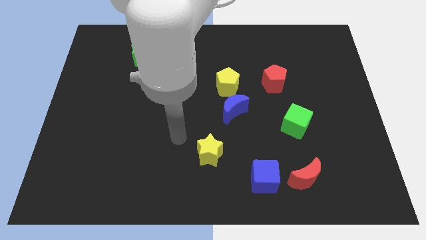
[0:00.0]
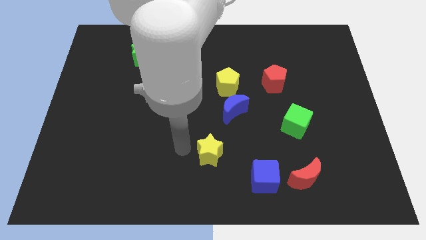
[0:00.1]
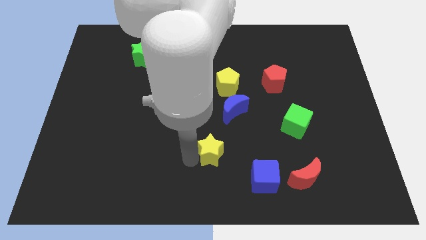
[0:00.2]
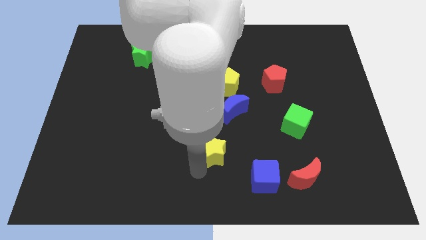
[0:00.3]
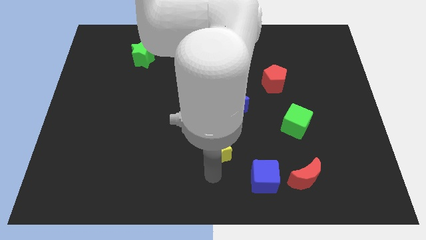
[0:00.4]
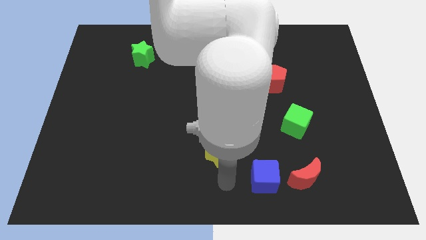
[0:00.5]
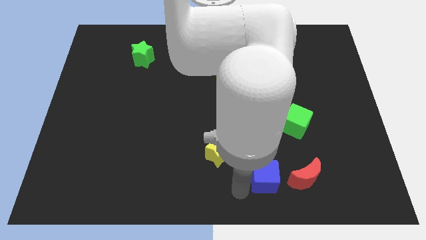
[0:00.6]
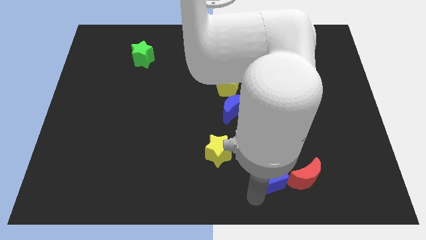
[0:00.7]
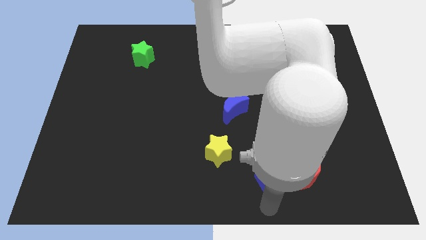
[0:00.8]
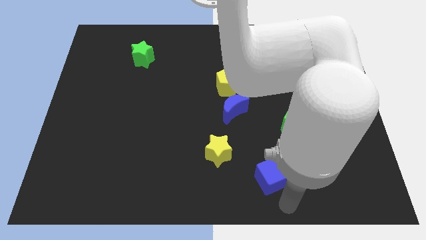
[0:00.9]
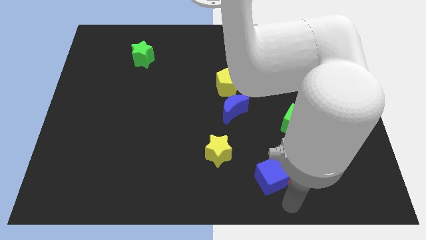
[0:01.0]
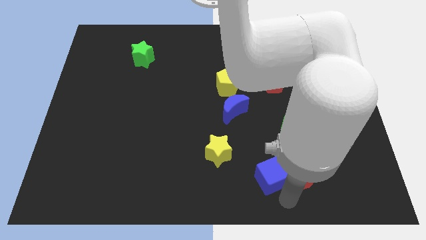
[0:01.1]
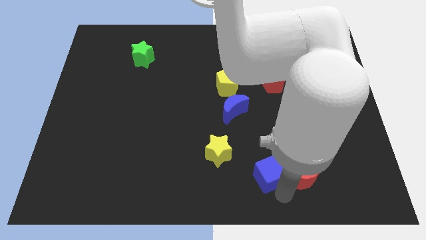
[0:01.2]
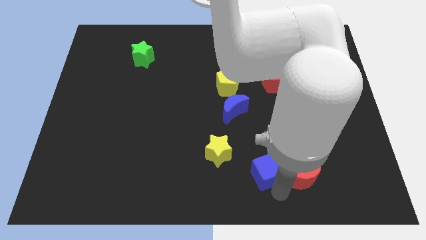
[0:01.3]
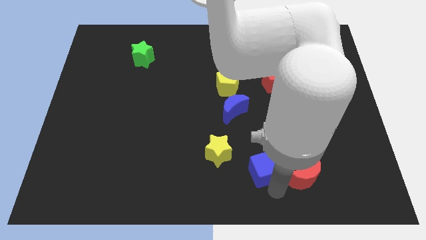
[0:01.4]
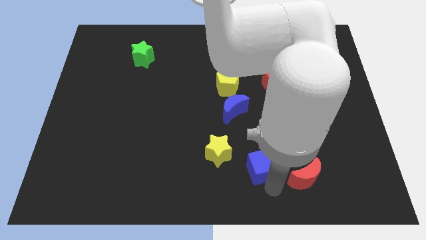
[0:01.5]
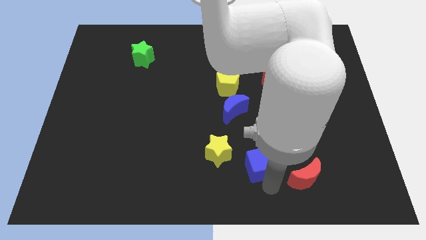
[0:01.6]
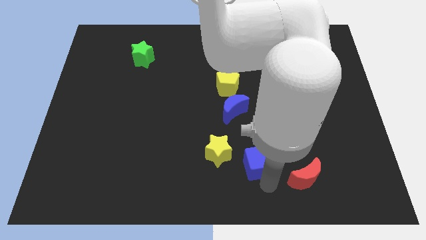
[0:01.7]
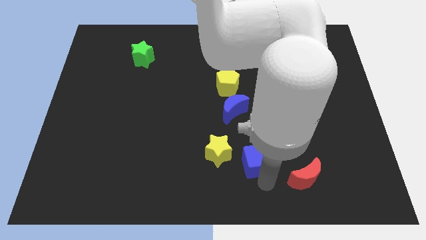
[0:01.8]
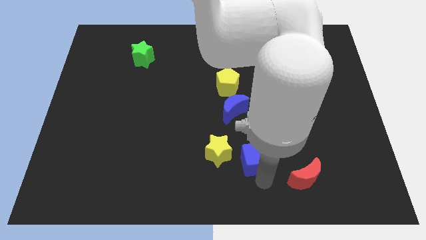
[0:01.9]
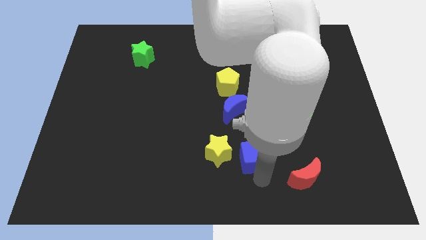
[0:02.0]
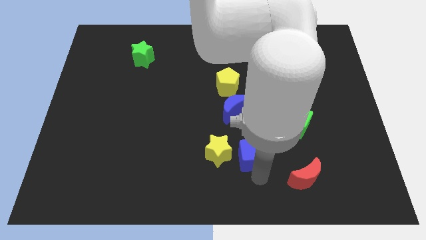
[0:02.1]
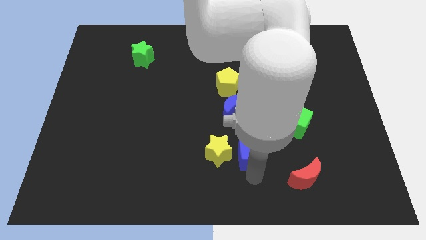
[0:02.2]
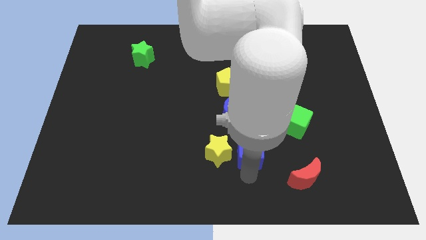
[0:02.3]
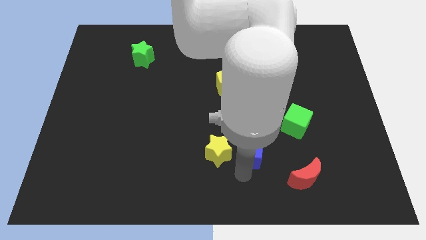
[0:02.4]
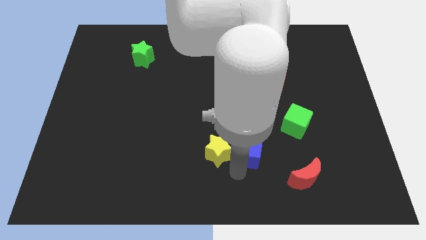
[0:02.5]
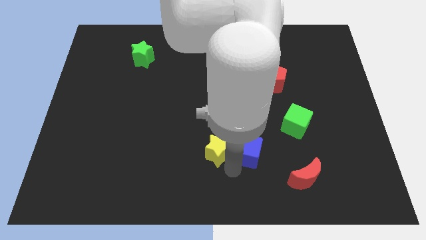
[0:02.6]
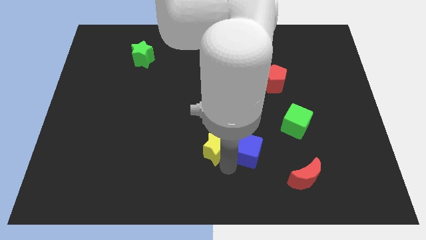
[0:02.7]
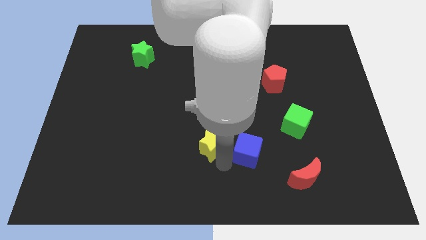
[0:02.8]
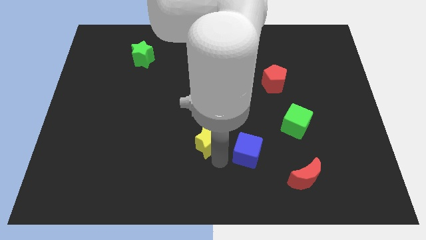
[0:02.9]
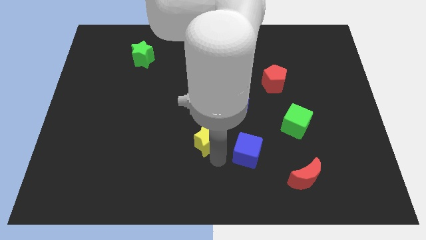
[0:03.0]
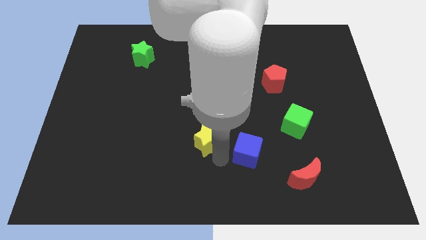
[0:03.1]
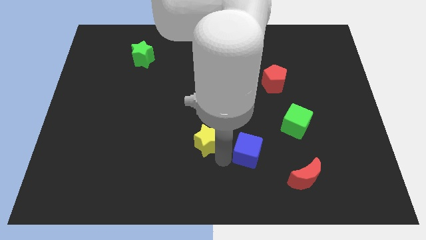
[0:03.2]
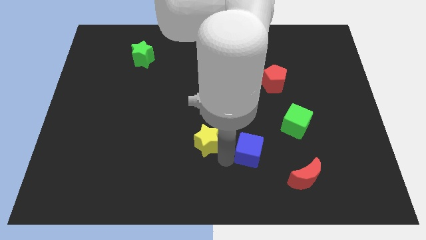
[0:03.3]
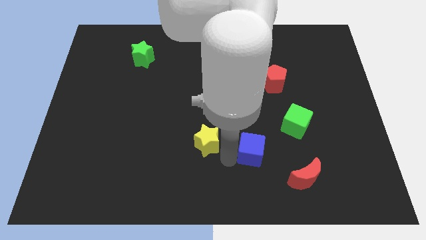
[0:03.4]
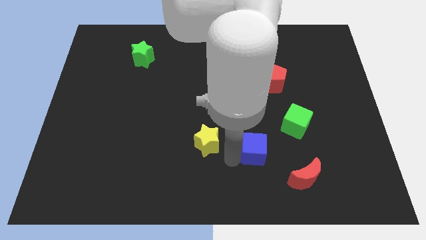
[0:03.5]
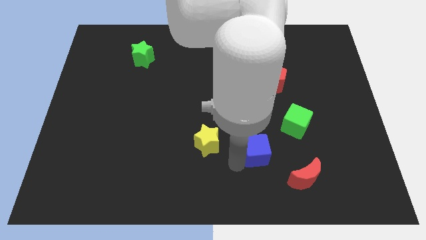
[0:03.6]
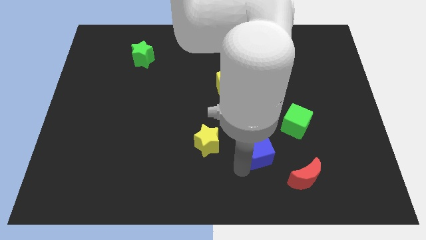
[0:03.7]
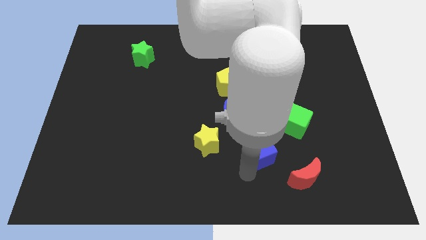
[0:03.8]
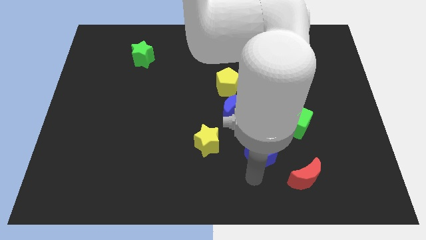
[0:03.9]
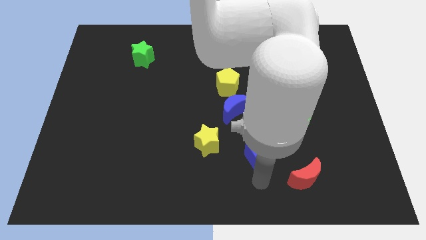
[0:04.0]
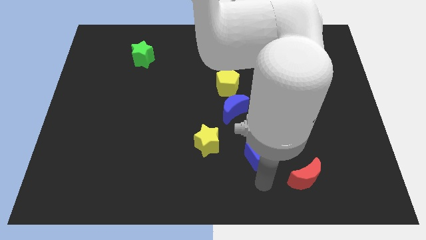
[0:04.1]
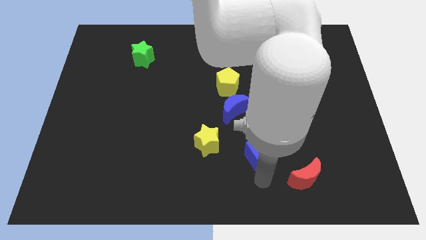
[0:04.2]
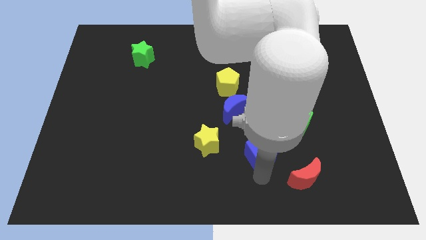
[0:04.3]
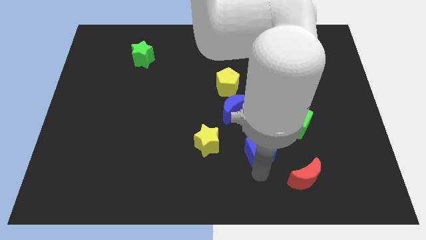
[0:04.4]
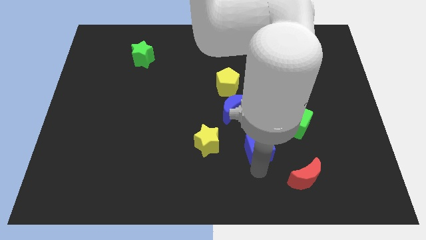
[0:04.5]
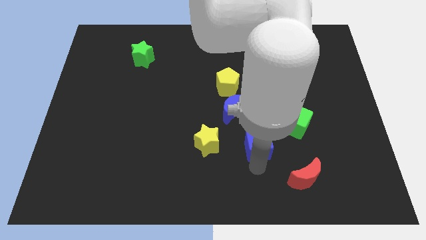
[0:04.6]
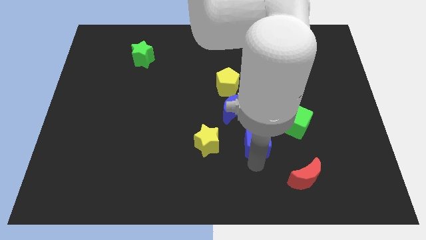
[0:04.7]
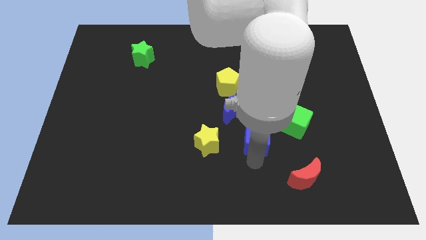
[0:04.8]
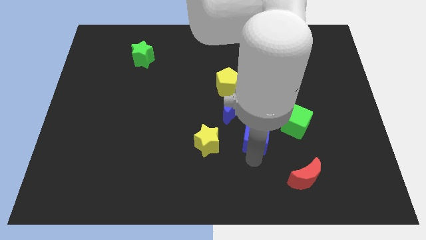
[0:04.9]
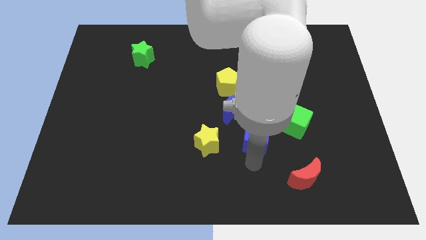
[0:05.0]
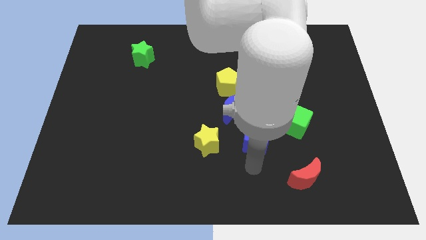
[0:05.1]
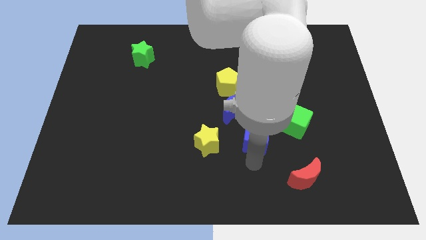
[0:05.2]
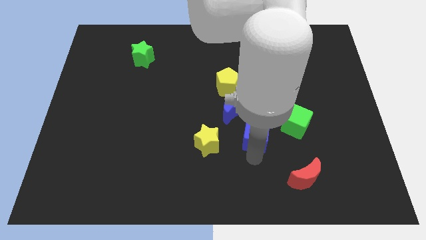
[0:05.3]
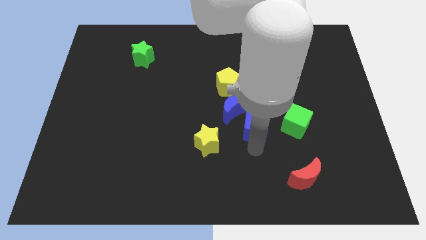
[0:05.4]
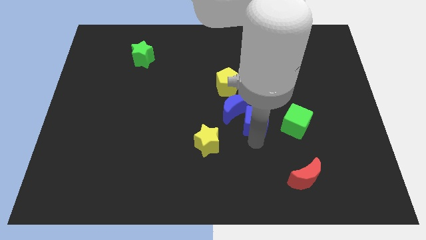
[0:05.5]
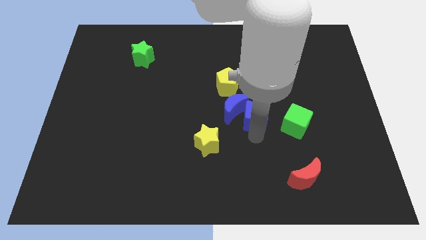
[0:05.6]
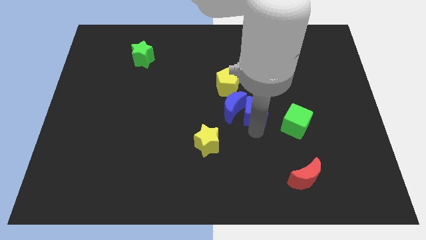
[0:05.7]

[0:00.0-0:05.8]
move the blue cube diagonally up and to the right of the blue moon

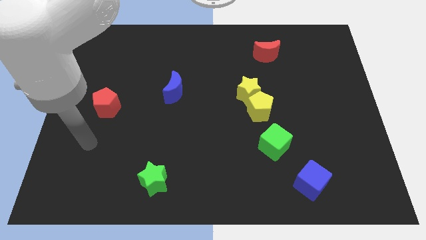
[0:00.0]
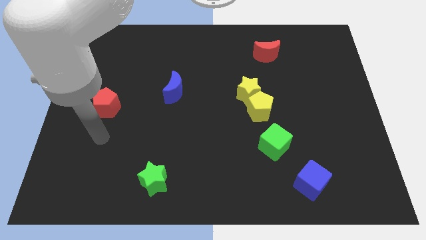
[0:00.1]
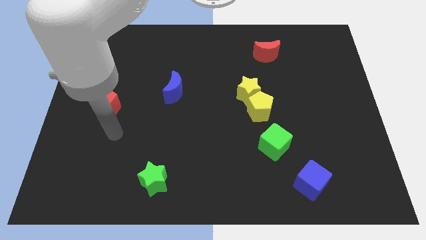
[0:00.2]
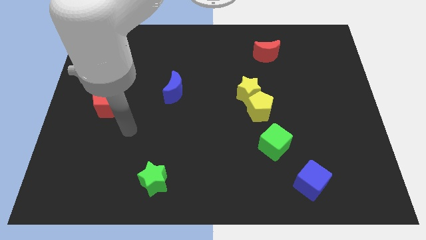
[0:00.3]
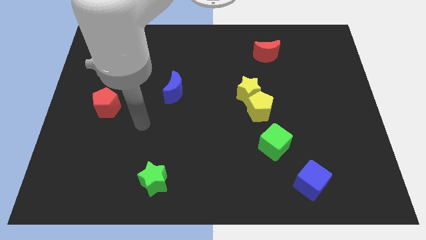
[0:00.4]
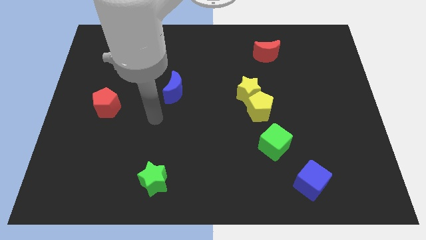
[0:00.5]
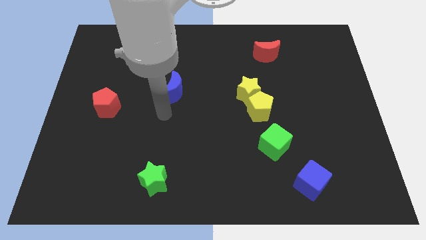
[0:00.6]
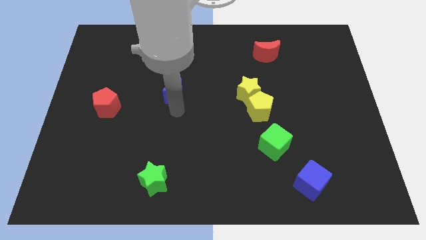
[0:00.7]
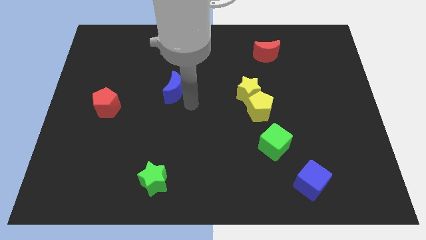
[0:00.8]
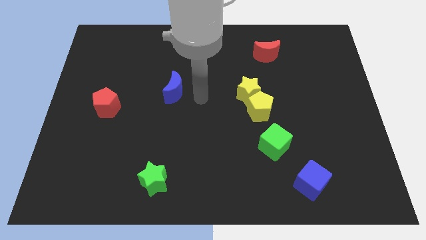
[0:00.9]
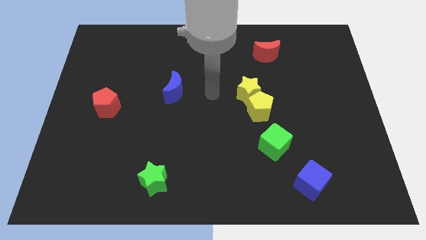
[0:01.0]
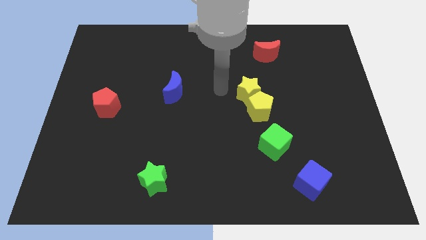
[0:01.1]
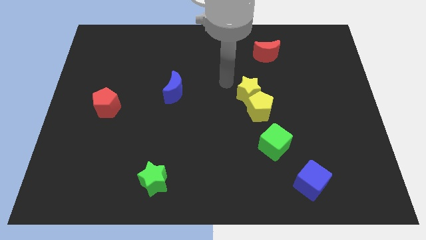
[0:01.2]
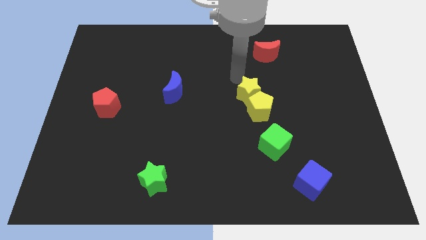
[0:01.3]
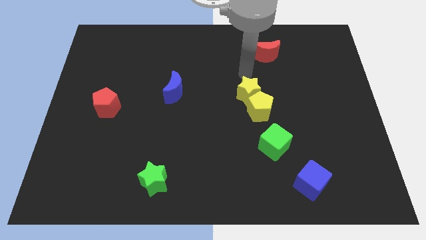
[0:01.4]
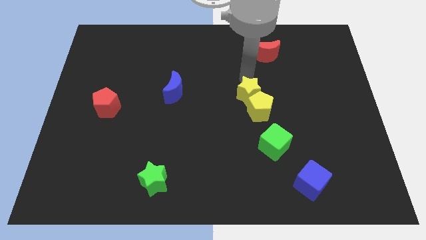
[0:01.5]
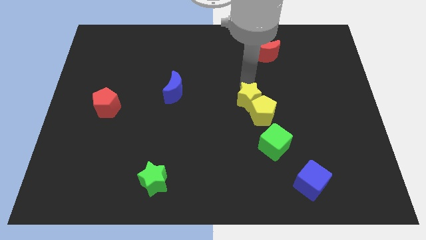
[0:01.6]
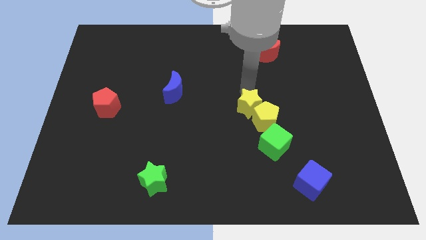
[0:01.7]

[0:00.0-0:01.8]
move the yellow star to the top left side of the green cube

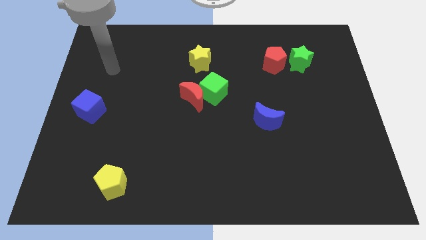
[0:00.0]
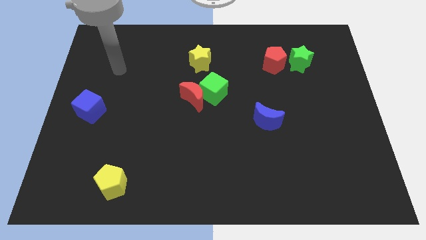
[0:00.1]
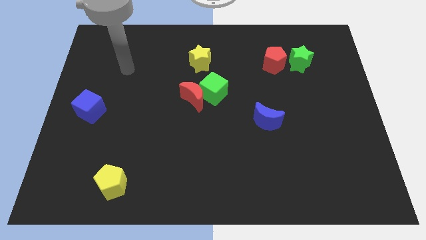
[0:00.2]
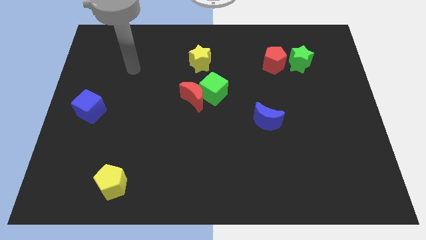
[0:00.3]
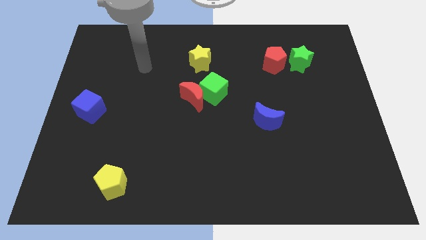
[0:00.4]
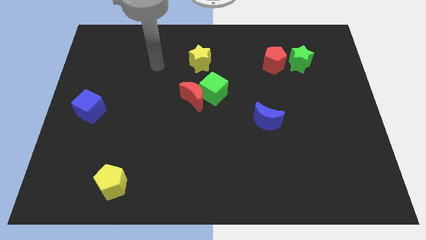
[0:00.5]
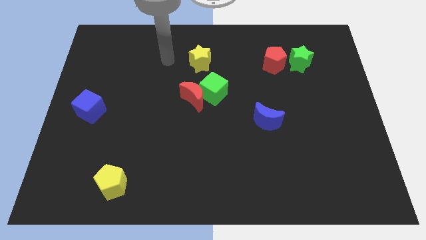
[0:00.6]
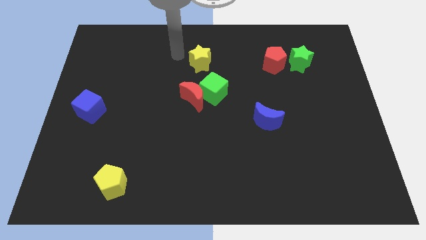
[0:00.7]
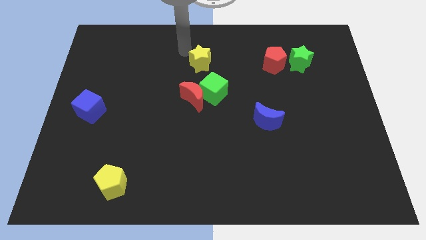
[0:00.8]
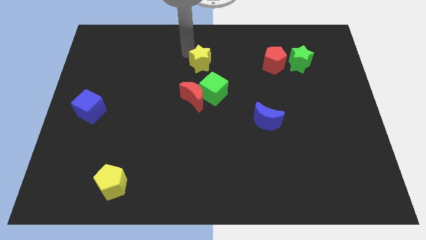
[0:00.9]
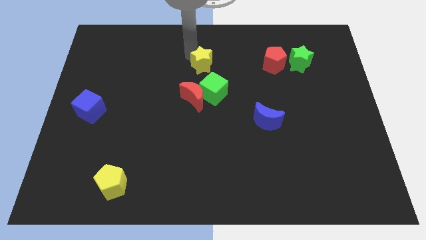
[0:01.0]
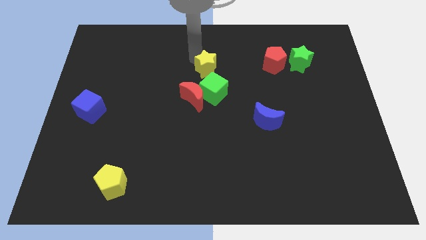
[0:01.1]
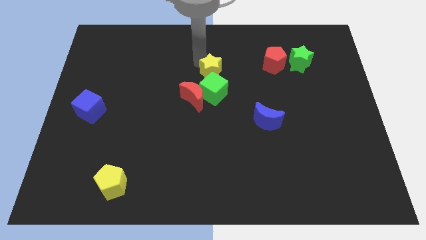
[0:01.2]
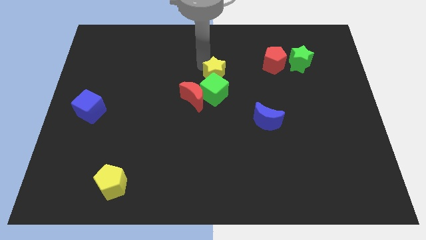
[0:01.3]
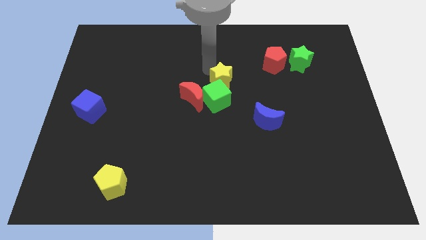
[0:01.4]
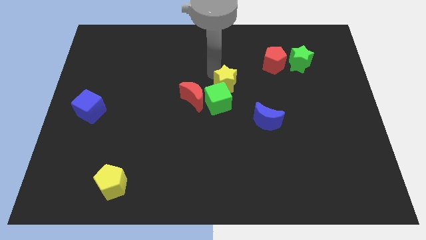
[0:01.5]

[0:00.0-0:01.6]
put the yellow star to the right side of the red moon
